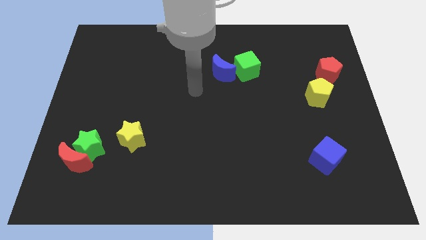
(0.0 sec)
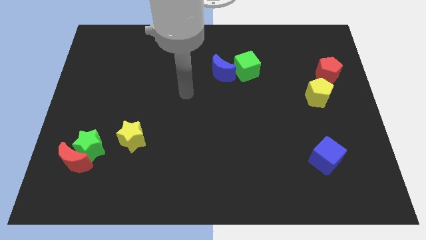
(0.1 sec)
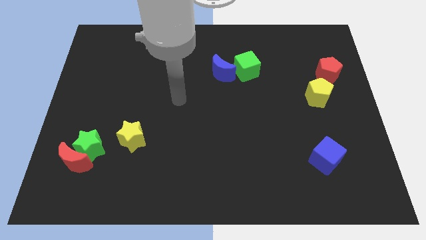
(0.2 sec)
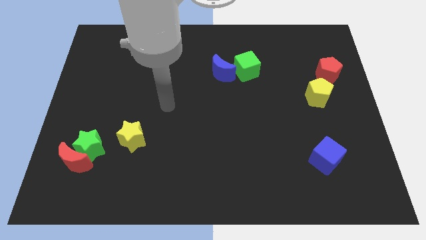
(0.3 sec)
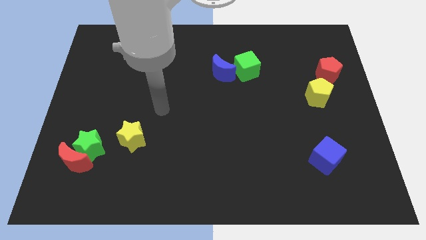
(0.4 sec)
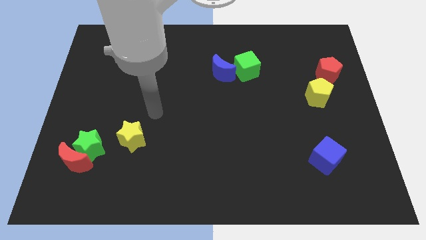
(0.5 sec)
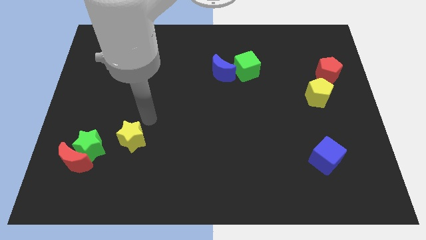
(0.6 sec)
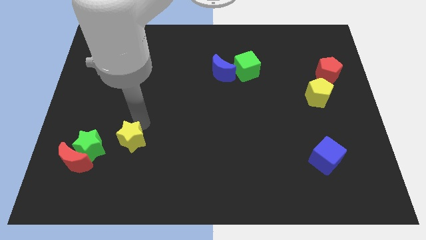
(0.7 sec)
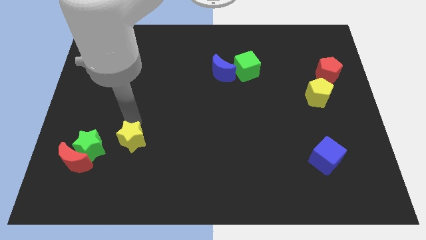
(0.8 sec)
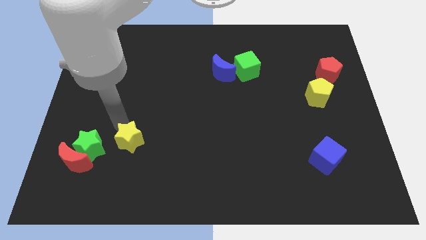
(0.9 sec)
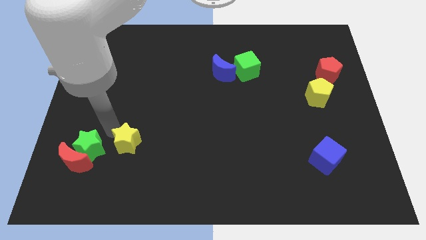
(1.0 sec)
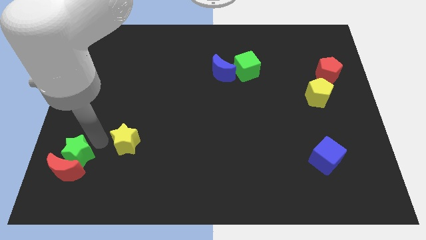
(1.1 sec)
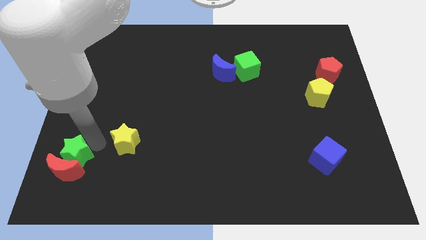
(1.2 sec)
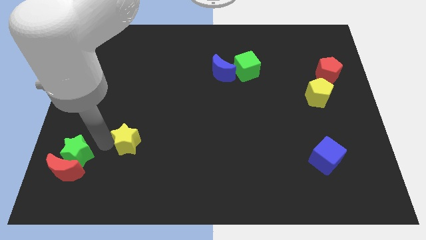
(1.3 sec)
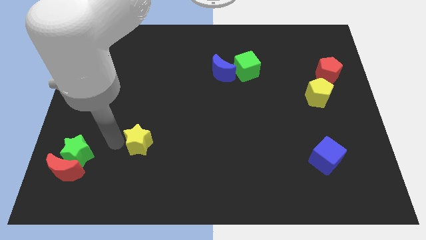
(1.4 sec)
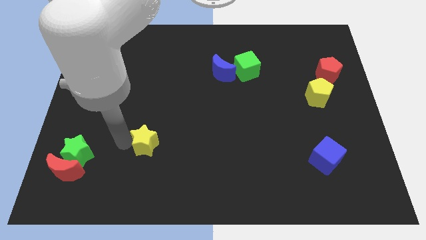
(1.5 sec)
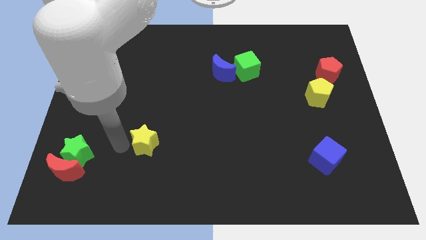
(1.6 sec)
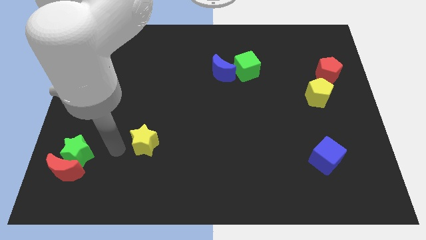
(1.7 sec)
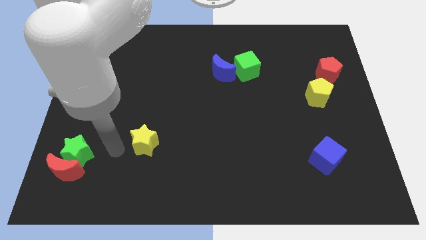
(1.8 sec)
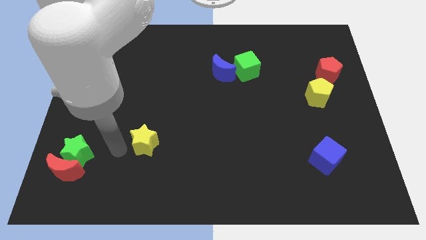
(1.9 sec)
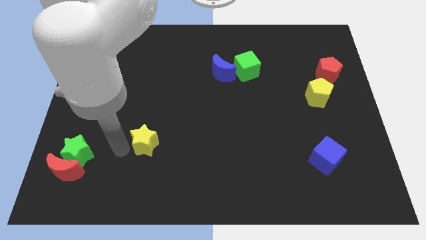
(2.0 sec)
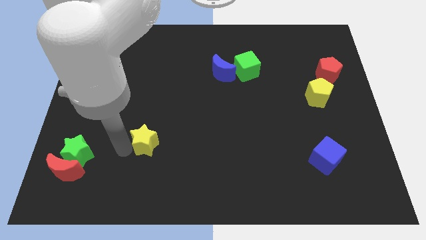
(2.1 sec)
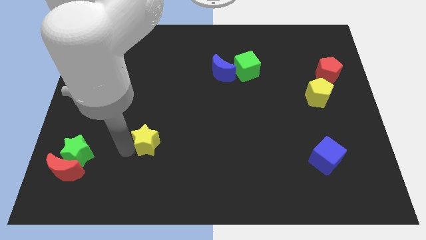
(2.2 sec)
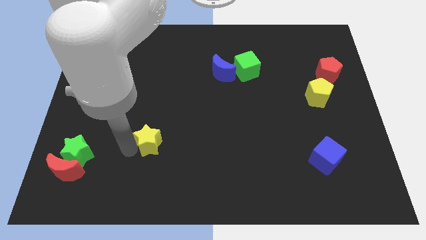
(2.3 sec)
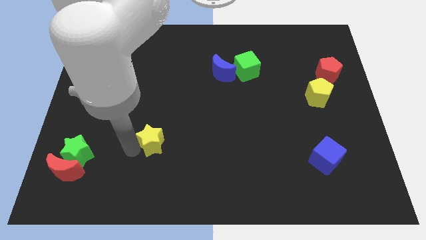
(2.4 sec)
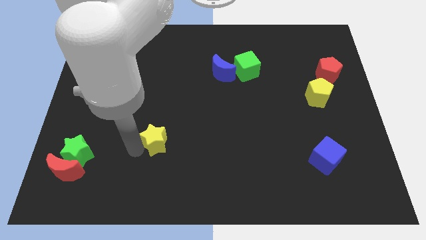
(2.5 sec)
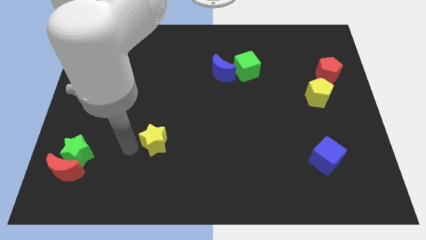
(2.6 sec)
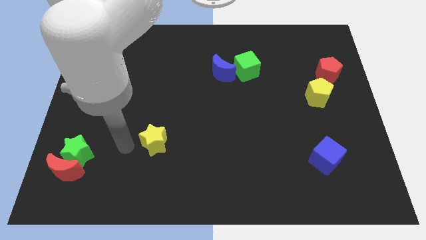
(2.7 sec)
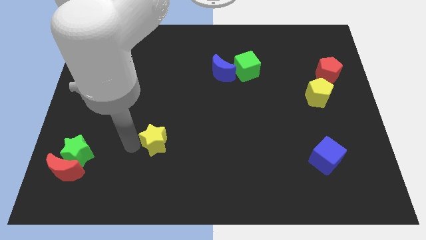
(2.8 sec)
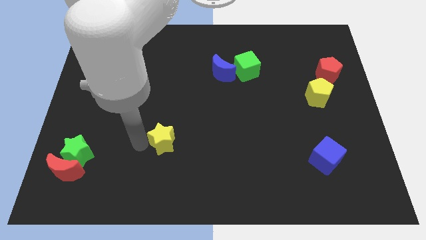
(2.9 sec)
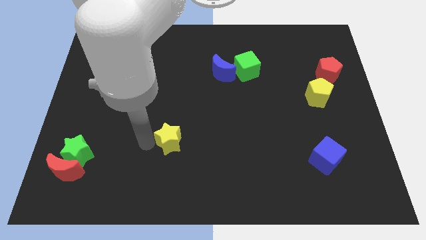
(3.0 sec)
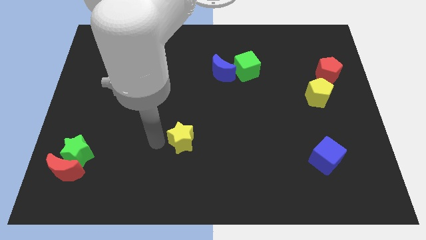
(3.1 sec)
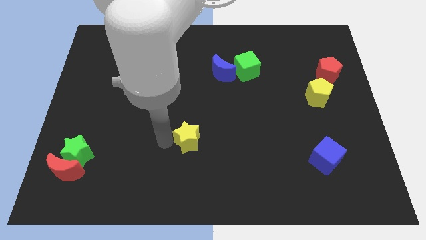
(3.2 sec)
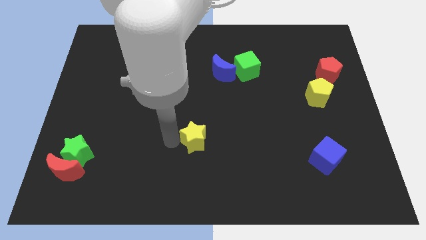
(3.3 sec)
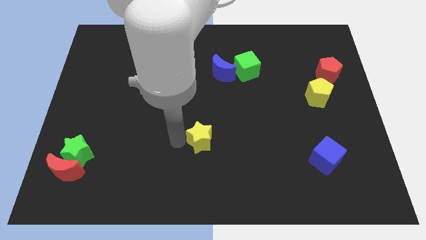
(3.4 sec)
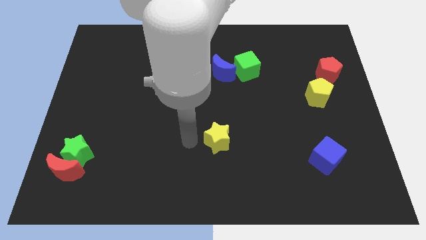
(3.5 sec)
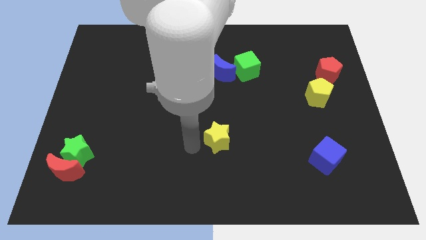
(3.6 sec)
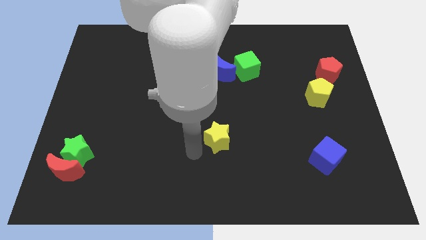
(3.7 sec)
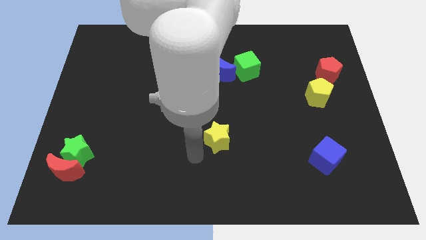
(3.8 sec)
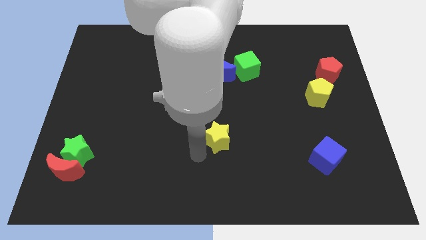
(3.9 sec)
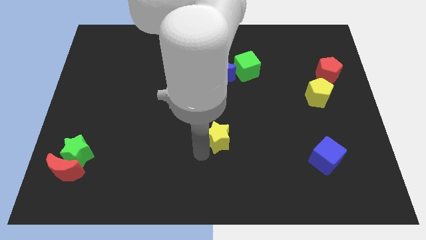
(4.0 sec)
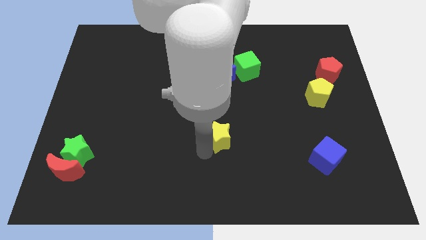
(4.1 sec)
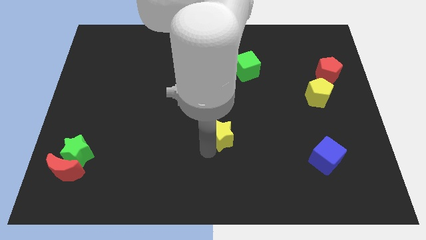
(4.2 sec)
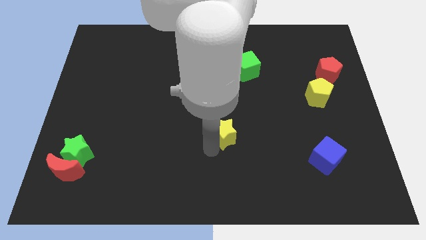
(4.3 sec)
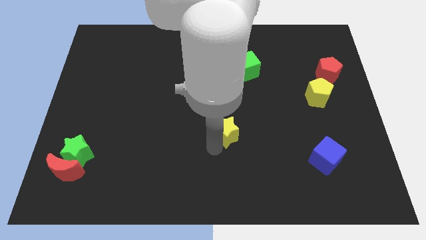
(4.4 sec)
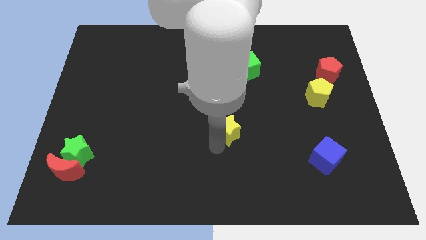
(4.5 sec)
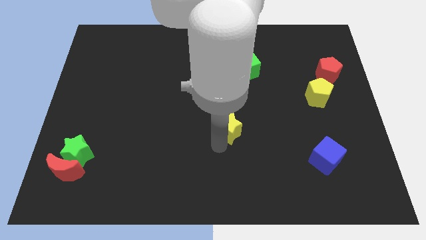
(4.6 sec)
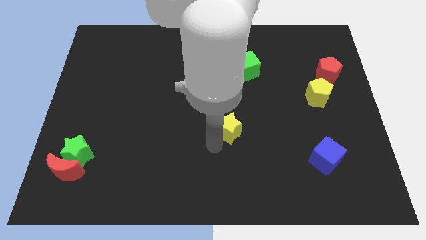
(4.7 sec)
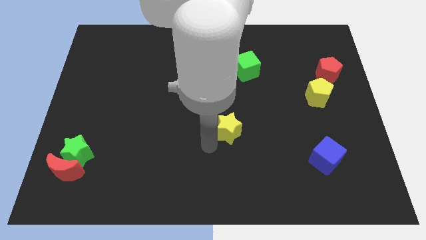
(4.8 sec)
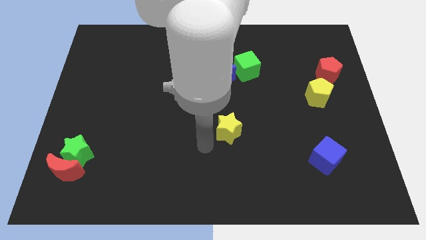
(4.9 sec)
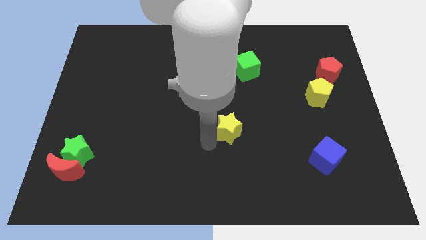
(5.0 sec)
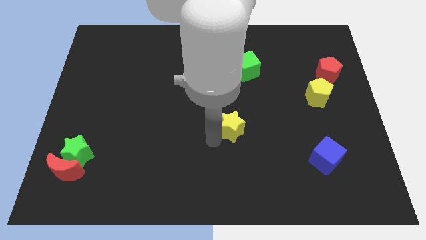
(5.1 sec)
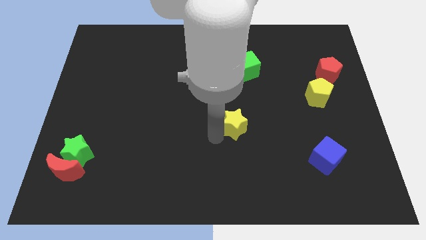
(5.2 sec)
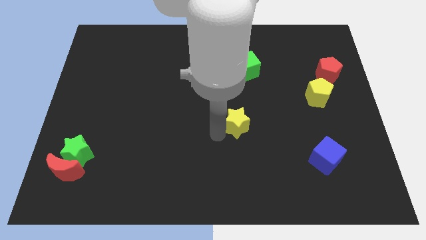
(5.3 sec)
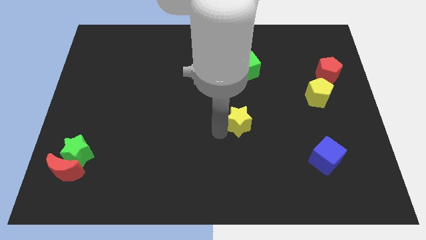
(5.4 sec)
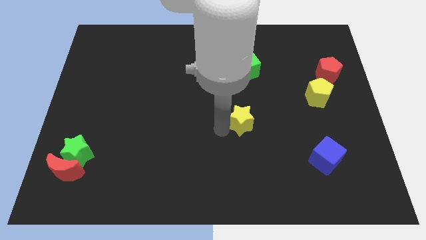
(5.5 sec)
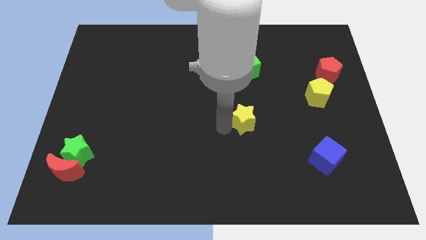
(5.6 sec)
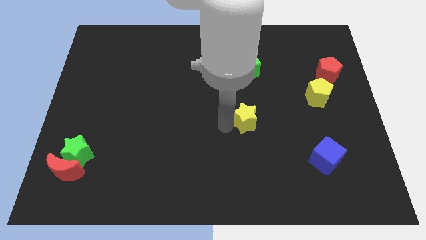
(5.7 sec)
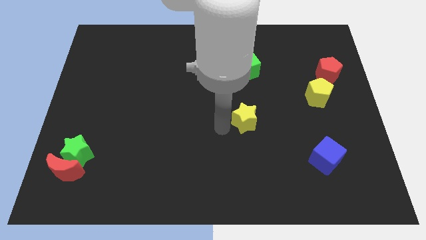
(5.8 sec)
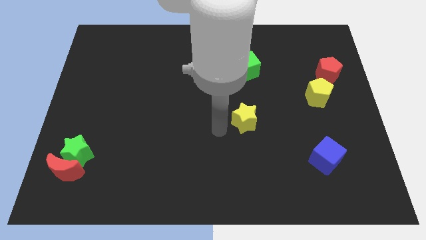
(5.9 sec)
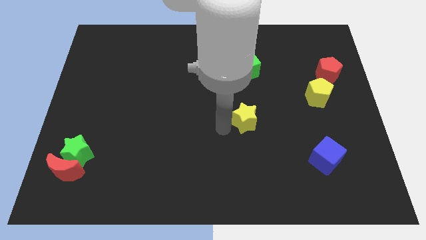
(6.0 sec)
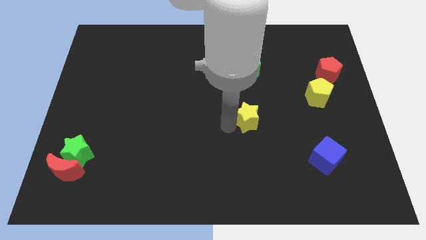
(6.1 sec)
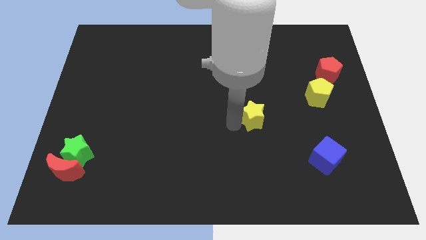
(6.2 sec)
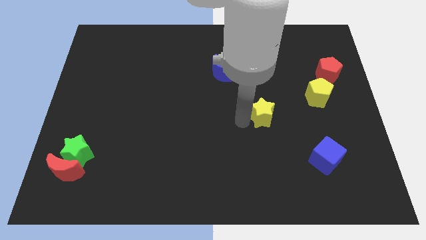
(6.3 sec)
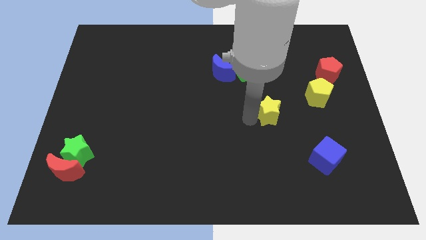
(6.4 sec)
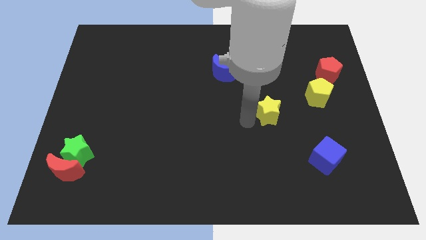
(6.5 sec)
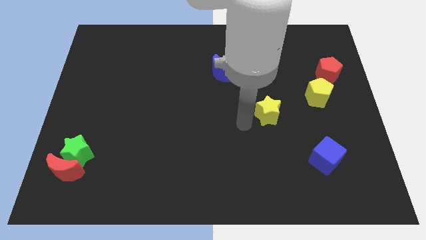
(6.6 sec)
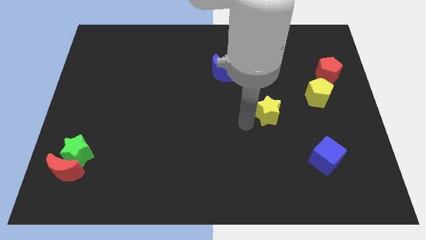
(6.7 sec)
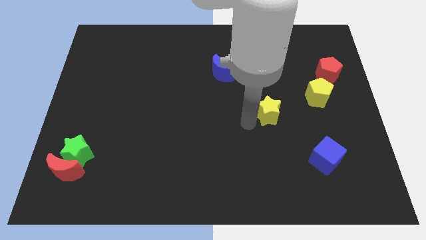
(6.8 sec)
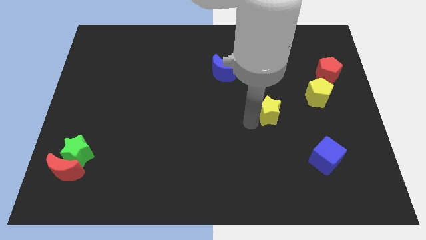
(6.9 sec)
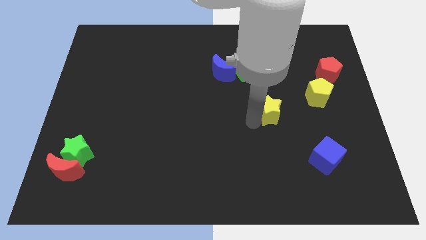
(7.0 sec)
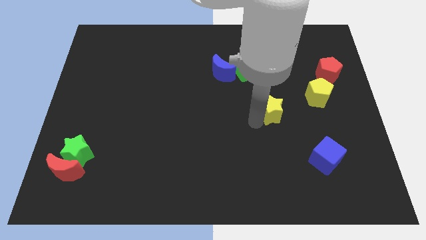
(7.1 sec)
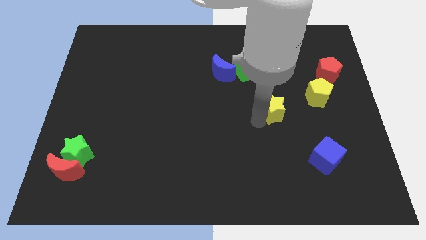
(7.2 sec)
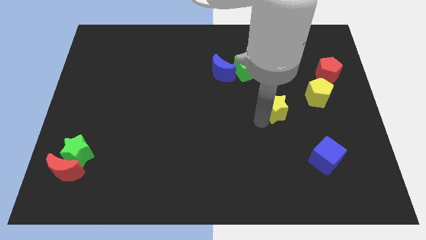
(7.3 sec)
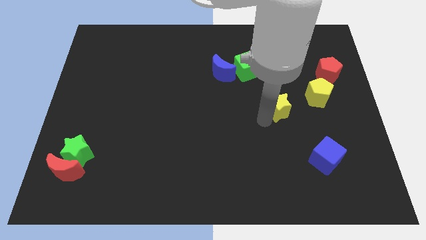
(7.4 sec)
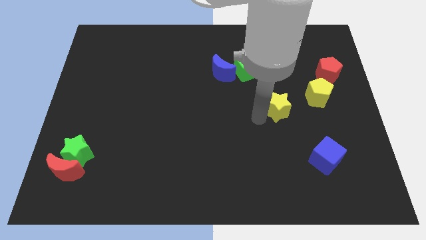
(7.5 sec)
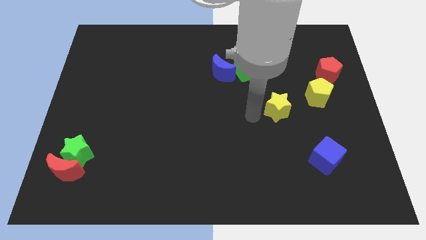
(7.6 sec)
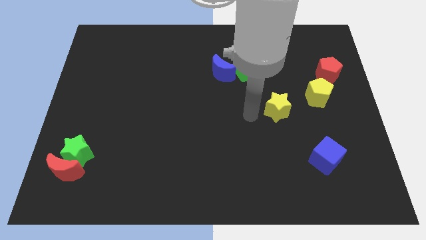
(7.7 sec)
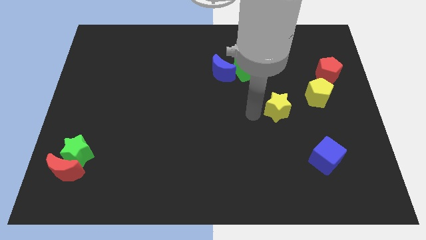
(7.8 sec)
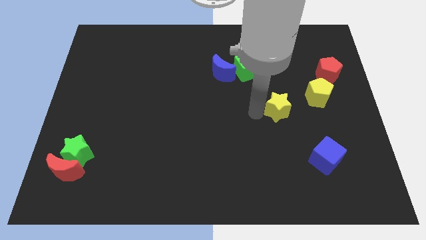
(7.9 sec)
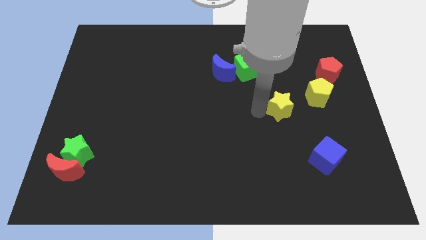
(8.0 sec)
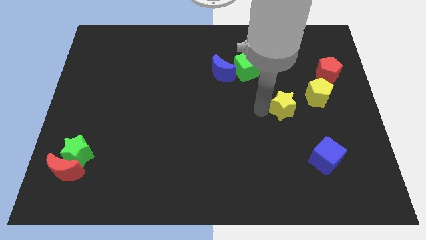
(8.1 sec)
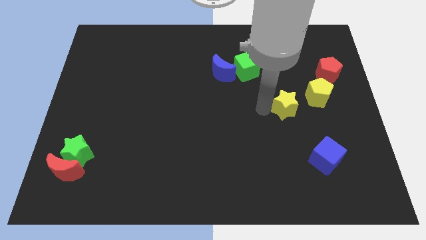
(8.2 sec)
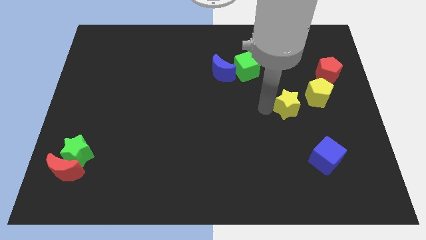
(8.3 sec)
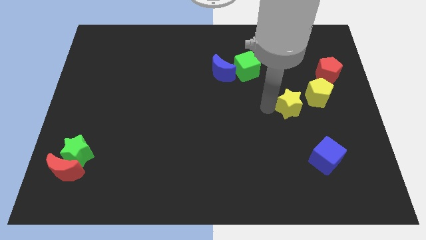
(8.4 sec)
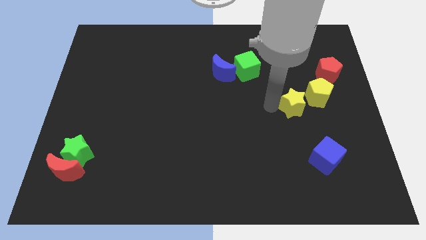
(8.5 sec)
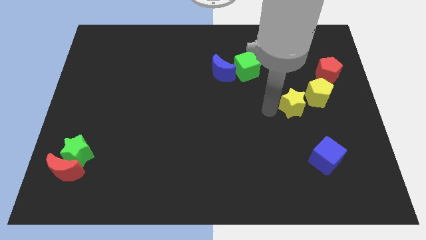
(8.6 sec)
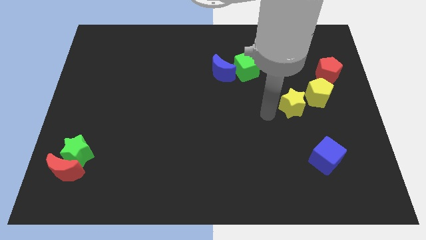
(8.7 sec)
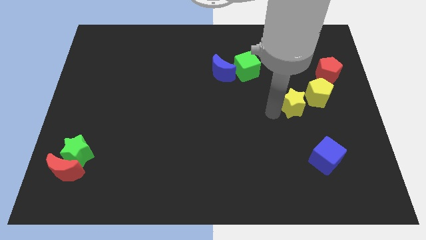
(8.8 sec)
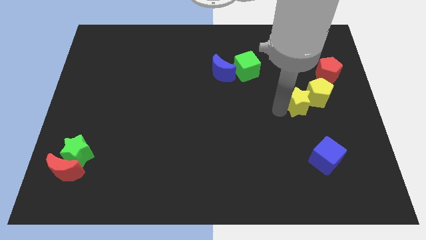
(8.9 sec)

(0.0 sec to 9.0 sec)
push the yellow star close to the yellow pentagon
